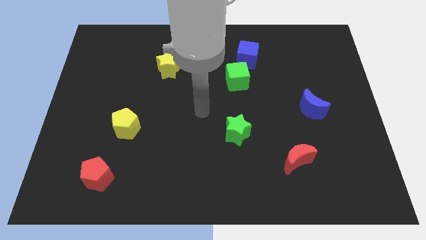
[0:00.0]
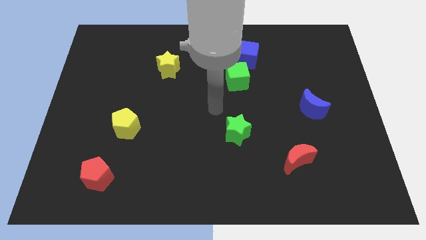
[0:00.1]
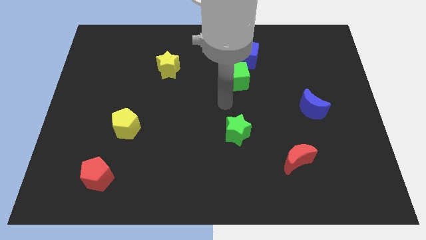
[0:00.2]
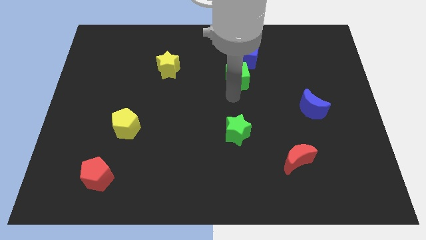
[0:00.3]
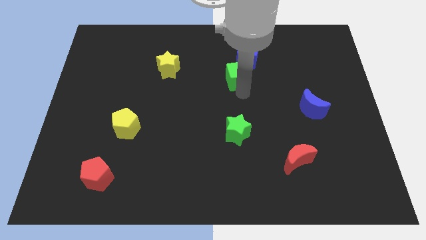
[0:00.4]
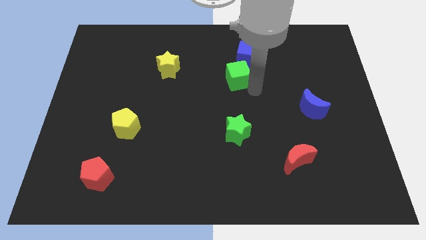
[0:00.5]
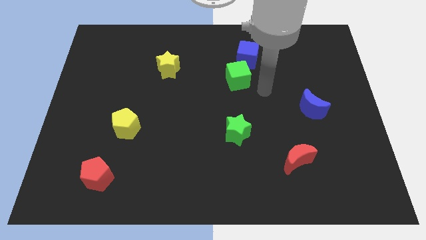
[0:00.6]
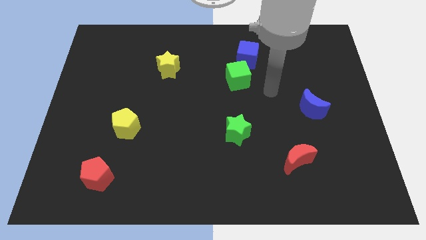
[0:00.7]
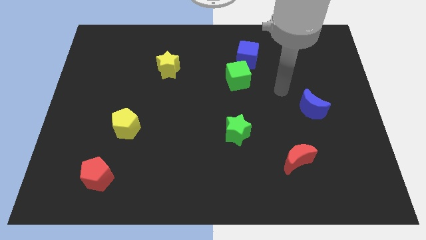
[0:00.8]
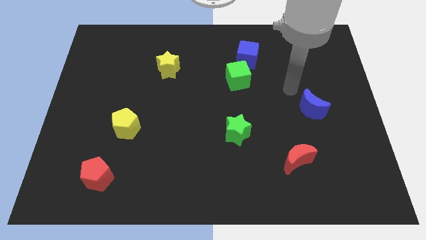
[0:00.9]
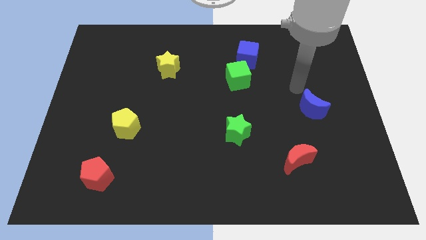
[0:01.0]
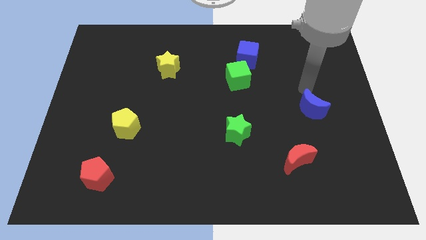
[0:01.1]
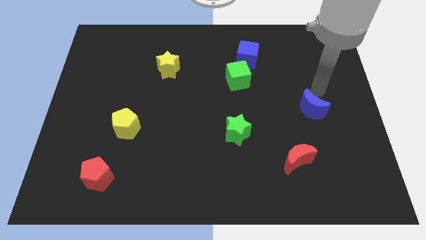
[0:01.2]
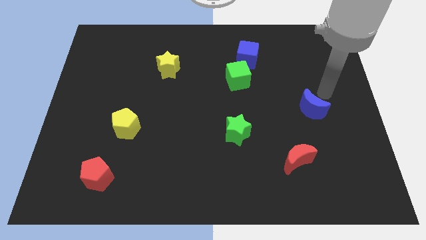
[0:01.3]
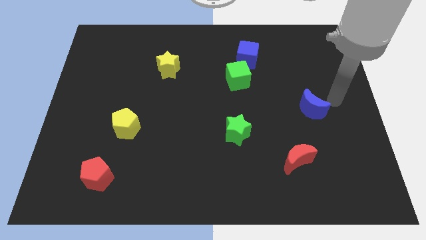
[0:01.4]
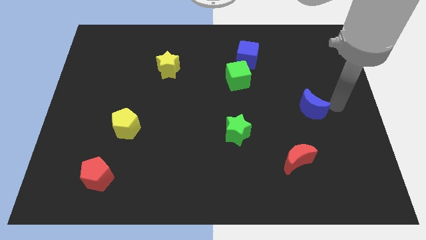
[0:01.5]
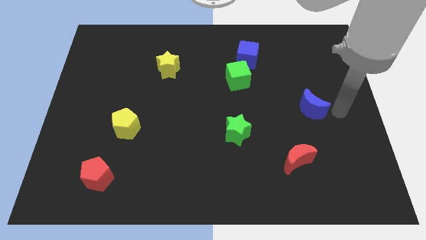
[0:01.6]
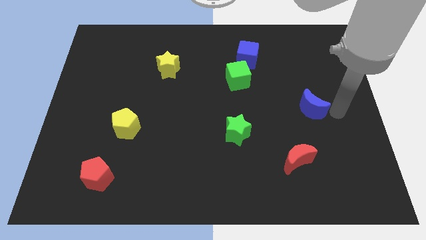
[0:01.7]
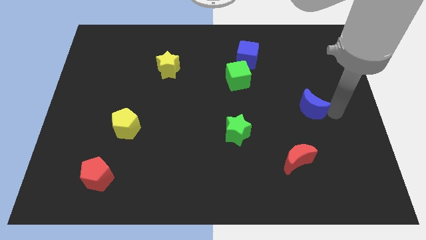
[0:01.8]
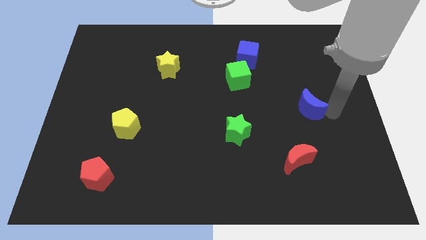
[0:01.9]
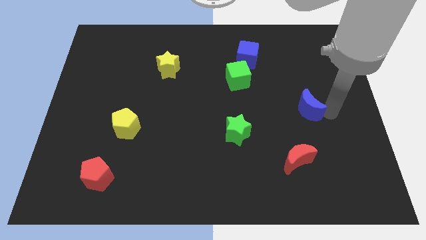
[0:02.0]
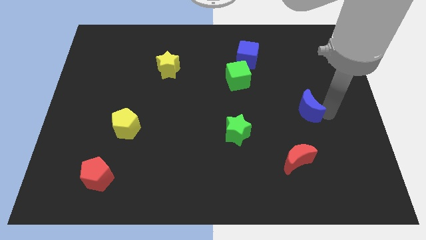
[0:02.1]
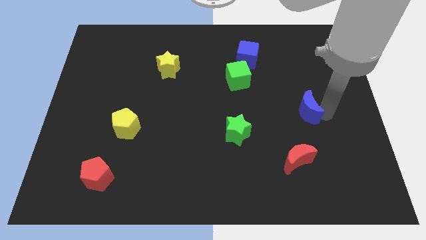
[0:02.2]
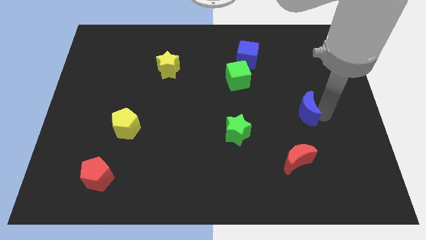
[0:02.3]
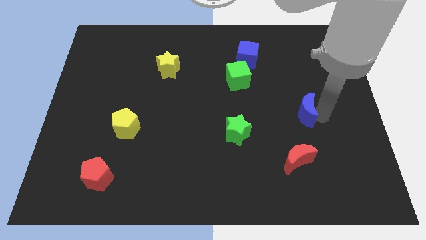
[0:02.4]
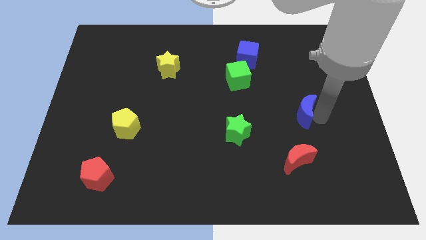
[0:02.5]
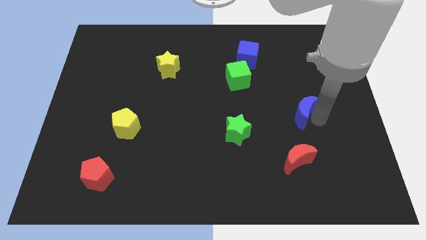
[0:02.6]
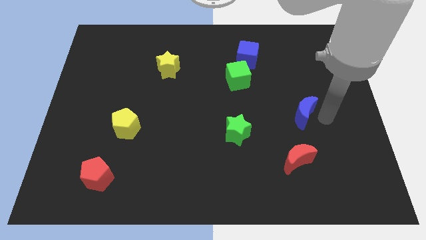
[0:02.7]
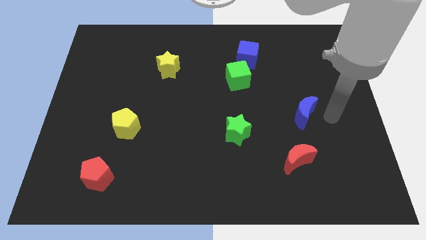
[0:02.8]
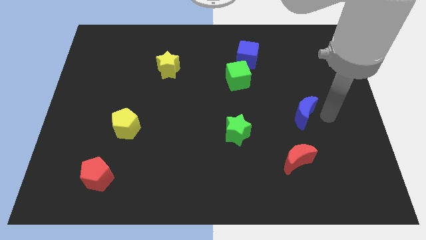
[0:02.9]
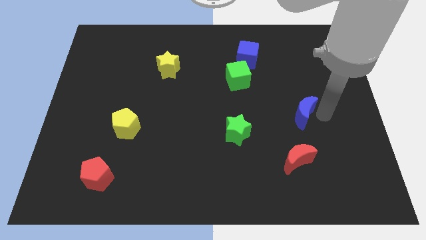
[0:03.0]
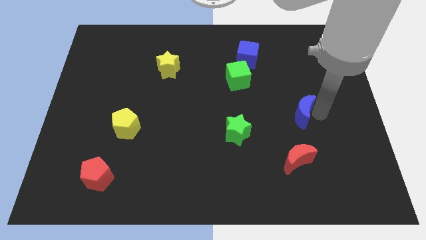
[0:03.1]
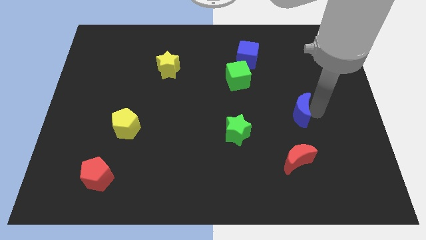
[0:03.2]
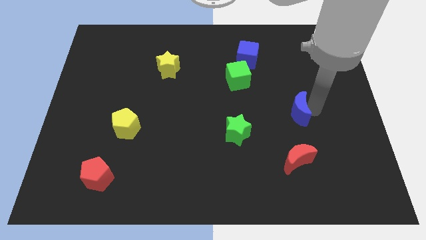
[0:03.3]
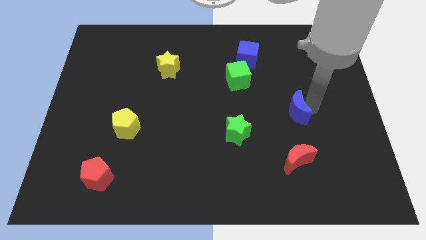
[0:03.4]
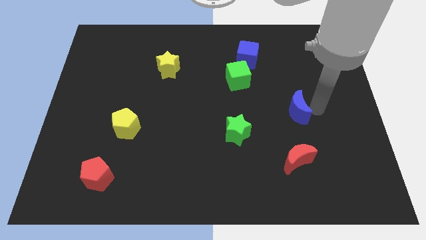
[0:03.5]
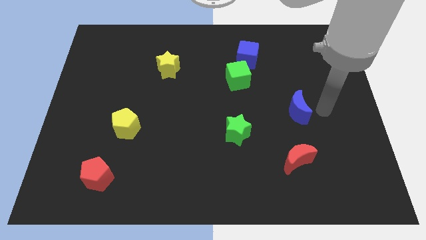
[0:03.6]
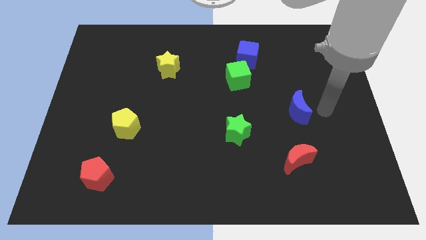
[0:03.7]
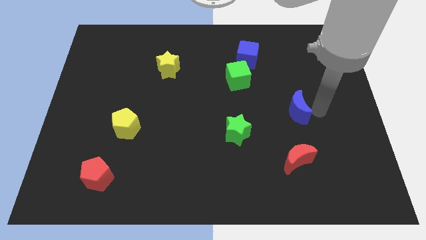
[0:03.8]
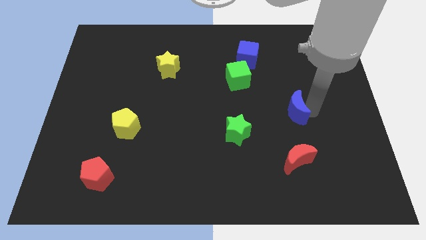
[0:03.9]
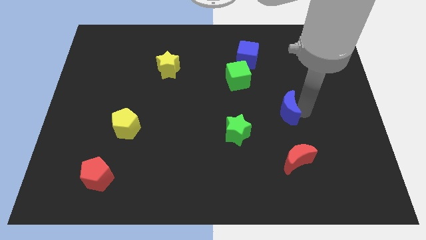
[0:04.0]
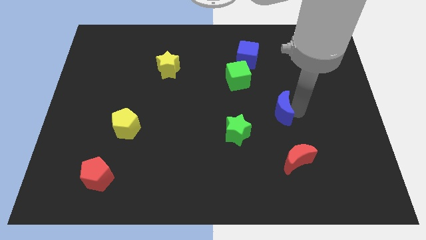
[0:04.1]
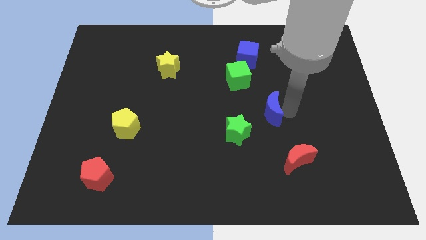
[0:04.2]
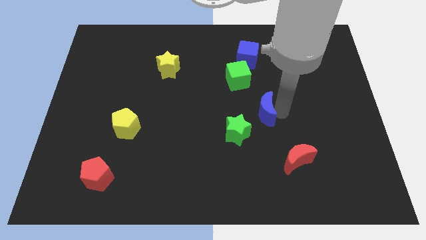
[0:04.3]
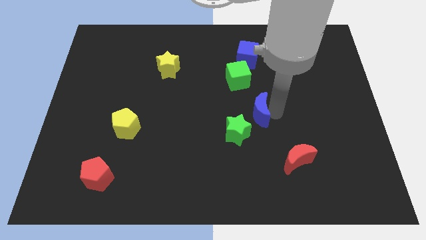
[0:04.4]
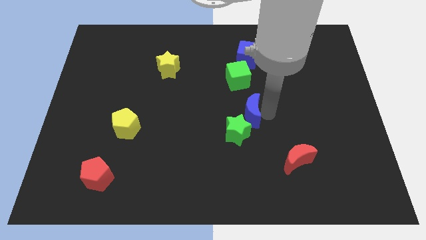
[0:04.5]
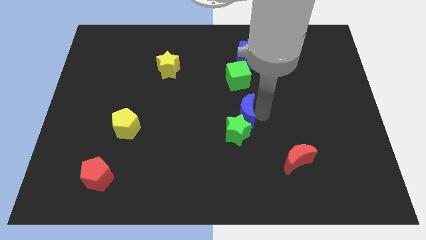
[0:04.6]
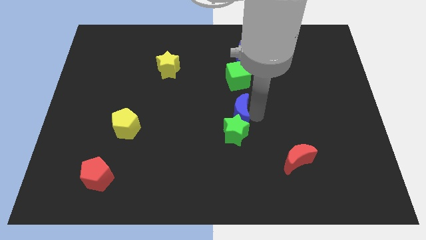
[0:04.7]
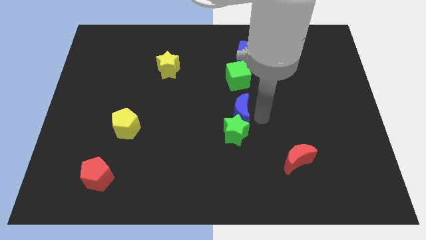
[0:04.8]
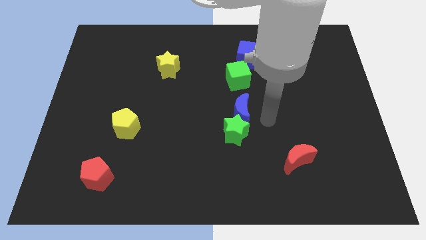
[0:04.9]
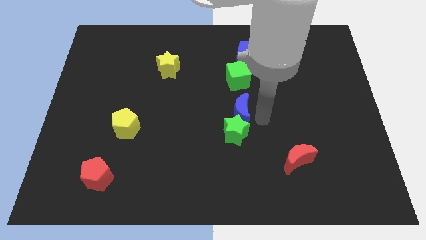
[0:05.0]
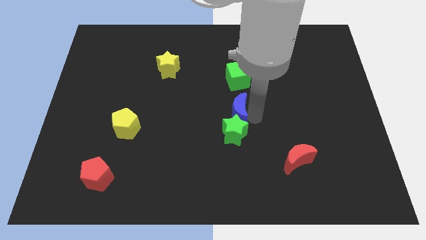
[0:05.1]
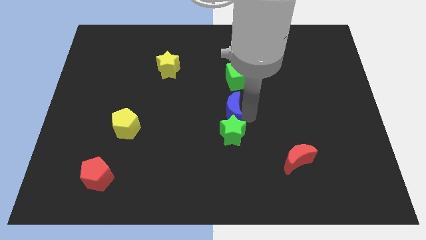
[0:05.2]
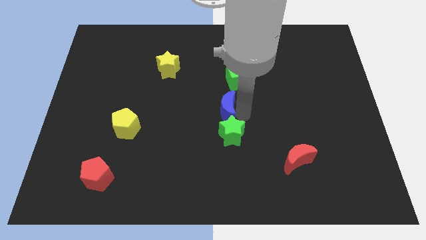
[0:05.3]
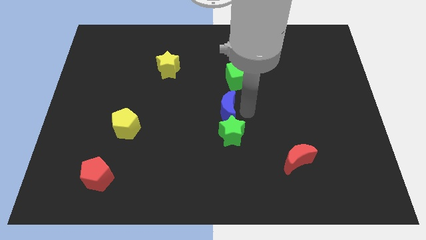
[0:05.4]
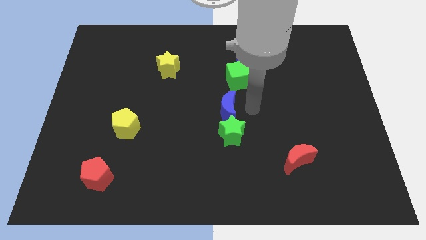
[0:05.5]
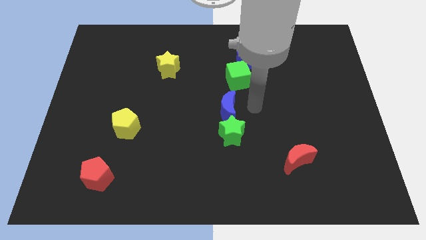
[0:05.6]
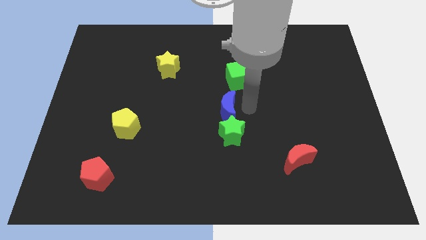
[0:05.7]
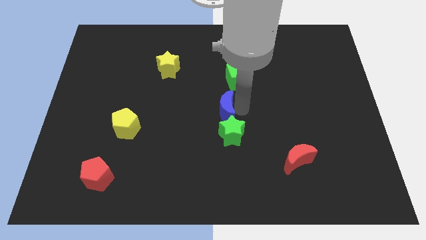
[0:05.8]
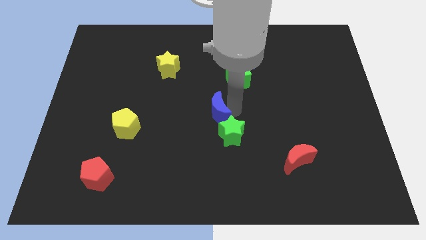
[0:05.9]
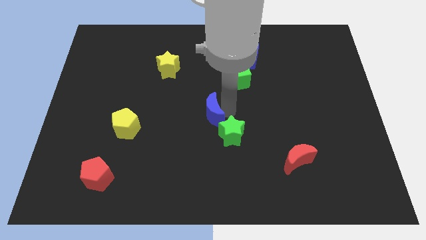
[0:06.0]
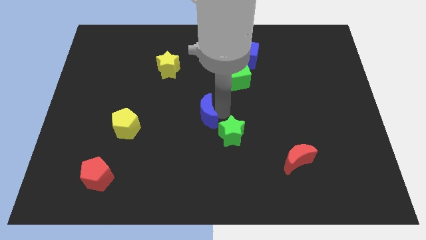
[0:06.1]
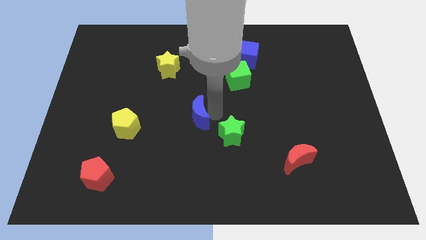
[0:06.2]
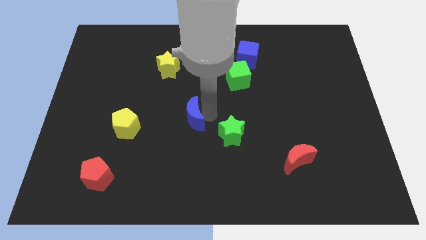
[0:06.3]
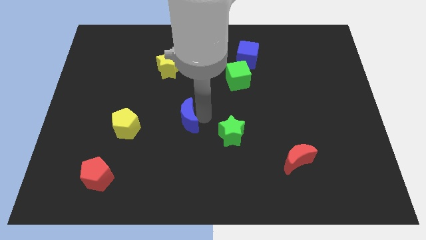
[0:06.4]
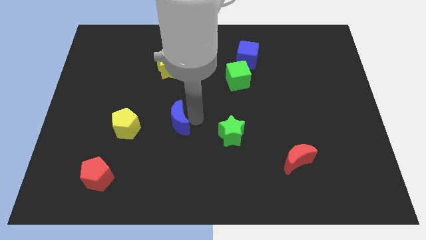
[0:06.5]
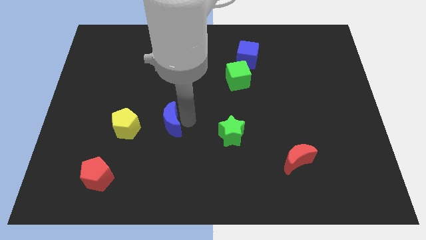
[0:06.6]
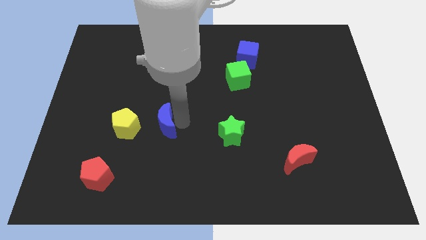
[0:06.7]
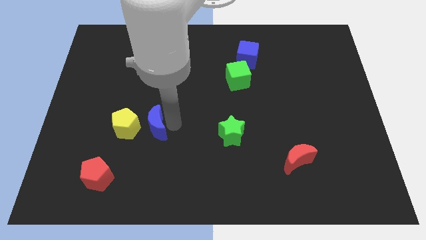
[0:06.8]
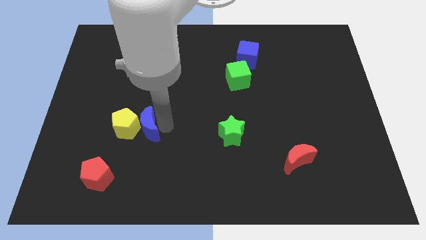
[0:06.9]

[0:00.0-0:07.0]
move the blue moon next to the yellow pentagon

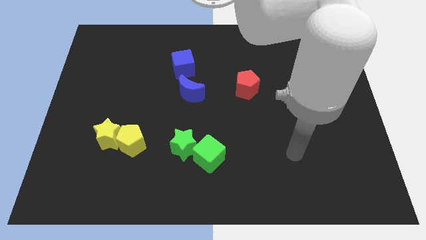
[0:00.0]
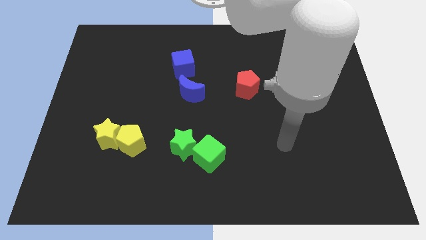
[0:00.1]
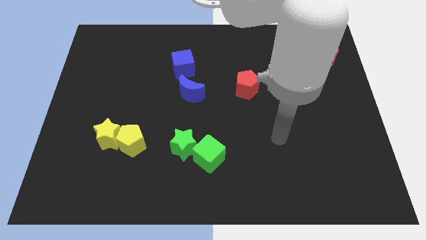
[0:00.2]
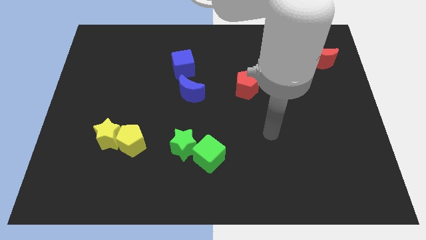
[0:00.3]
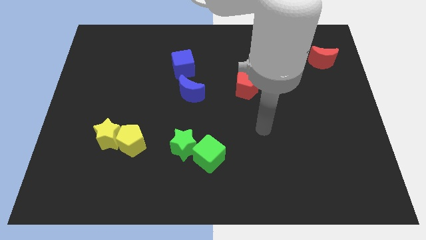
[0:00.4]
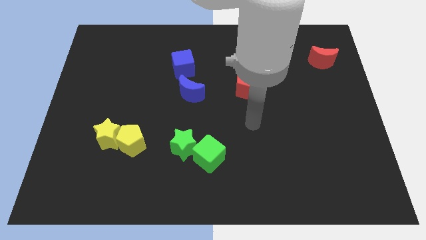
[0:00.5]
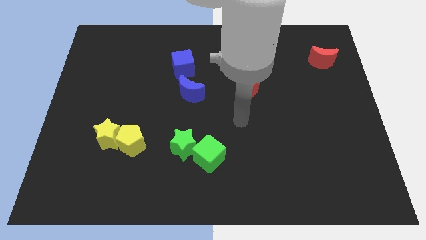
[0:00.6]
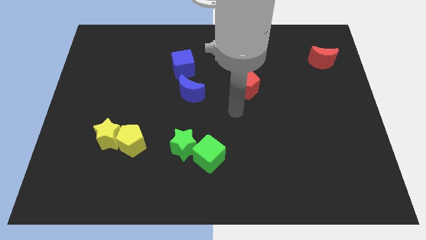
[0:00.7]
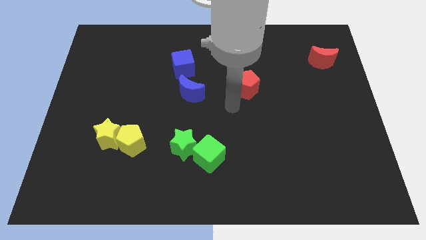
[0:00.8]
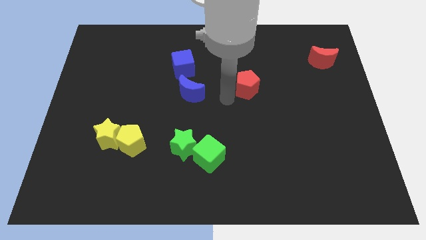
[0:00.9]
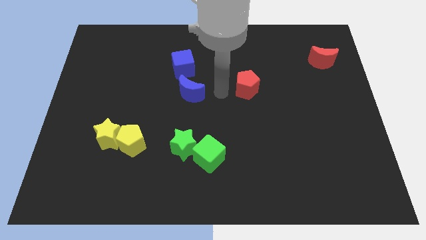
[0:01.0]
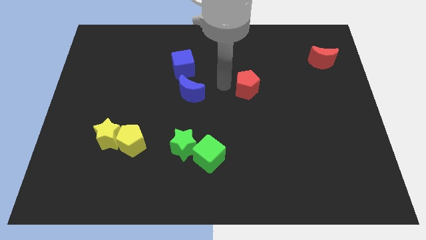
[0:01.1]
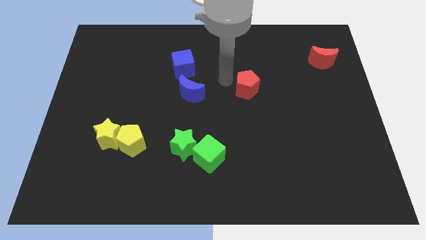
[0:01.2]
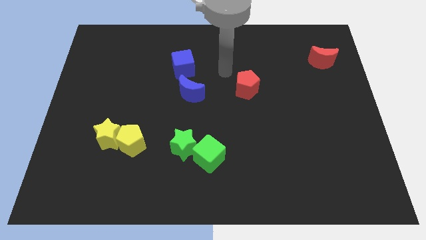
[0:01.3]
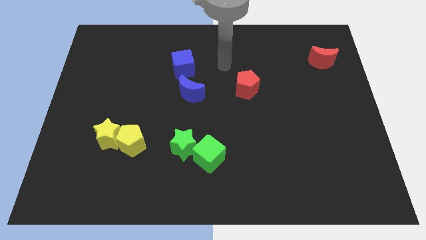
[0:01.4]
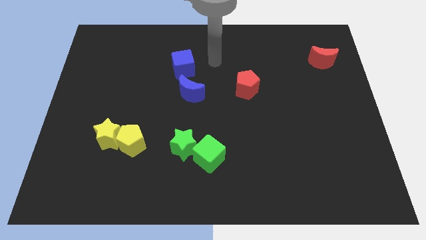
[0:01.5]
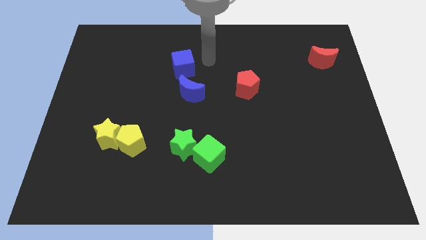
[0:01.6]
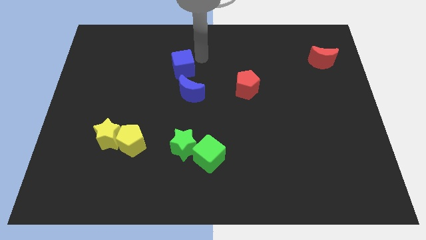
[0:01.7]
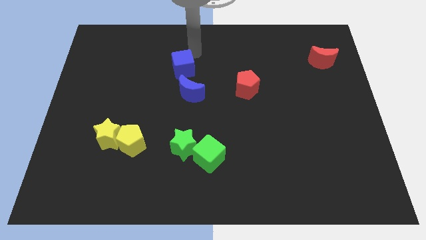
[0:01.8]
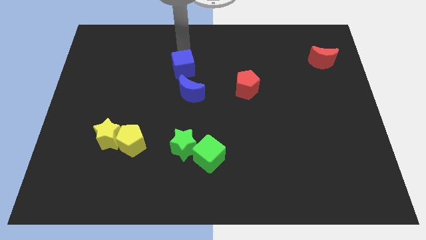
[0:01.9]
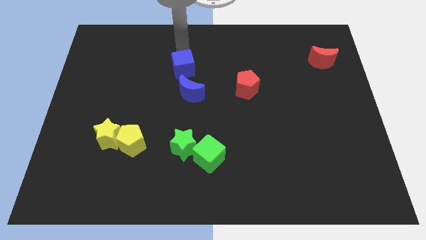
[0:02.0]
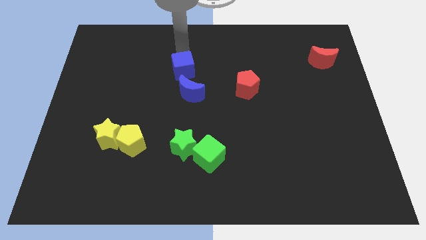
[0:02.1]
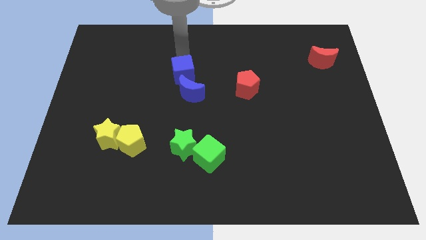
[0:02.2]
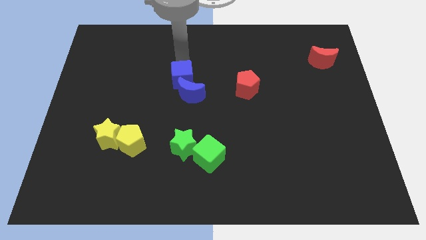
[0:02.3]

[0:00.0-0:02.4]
slide the blue cube next to the blue moon
